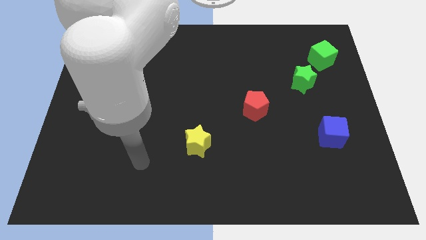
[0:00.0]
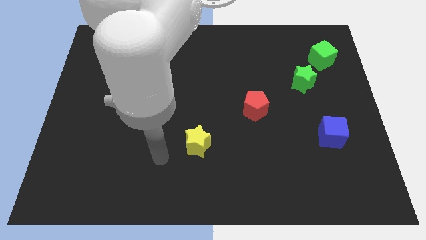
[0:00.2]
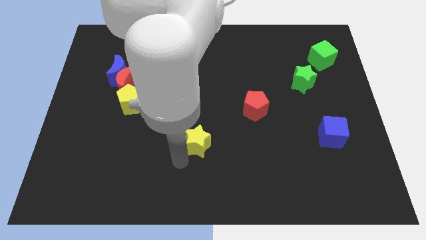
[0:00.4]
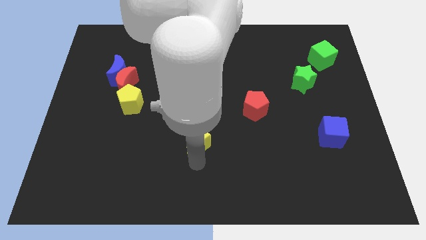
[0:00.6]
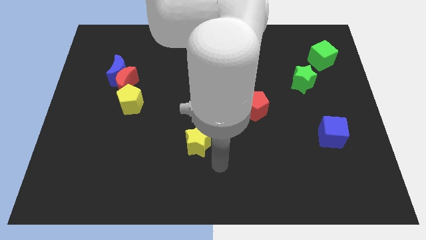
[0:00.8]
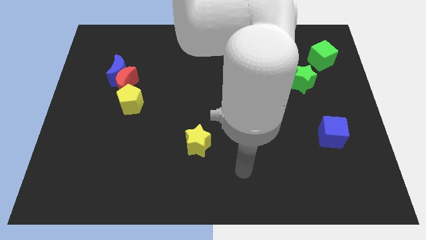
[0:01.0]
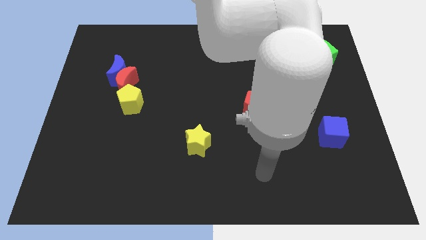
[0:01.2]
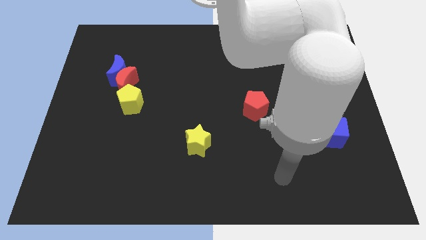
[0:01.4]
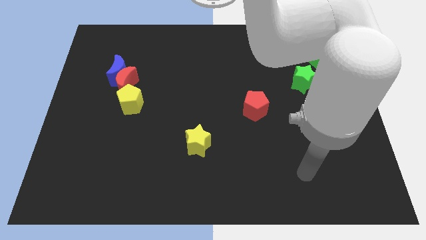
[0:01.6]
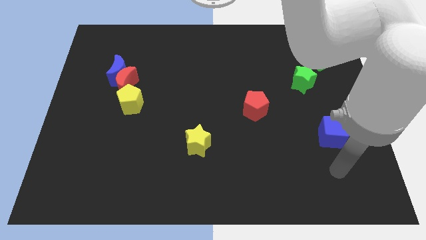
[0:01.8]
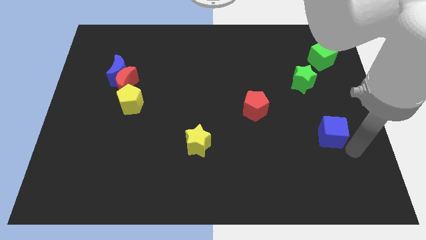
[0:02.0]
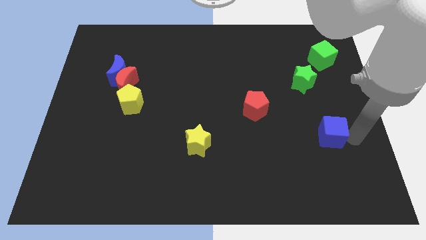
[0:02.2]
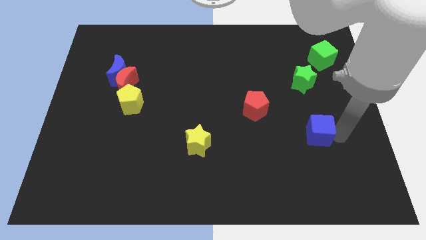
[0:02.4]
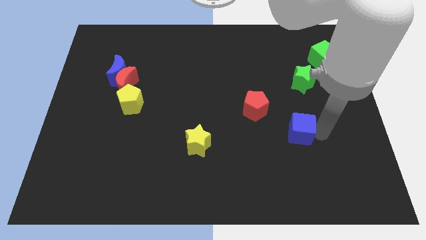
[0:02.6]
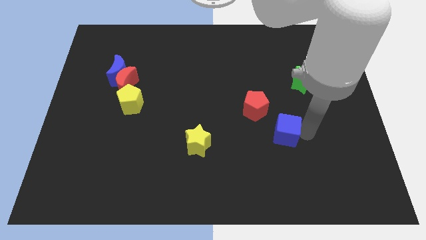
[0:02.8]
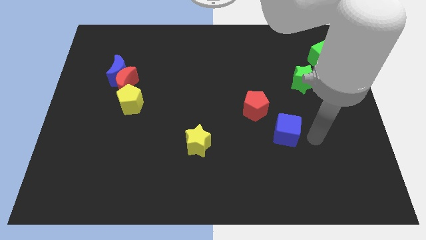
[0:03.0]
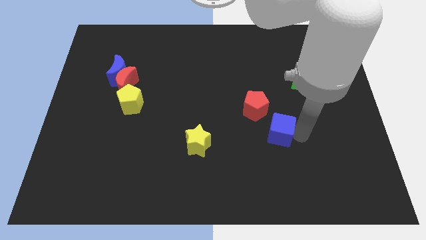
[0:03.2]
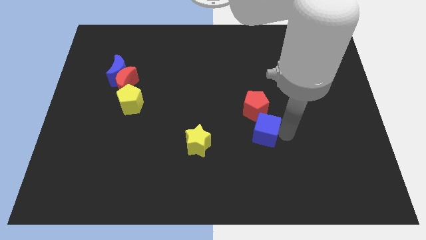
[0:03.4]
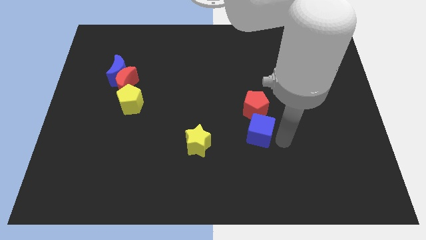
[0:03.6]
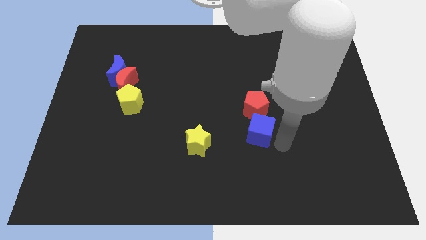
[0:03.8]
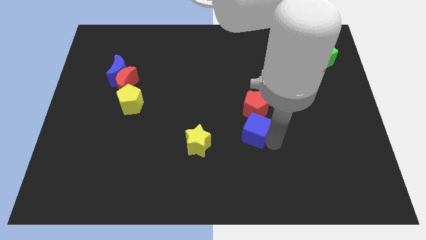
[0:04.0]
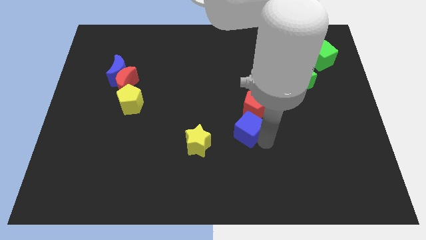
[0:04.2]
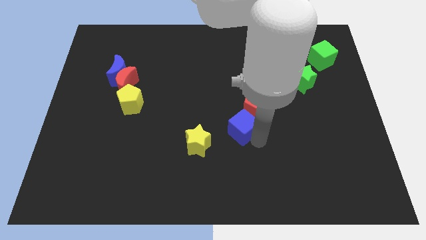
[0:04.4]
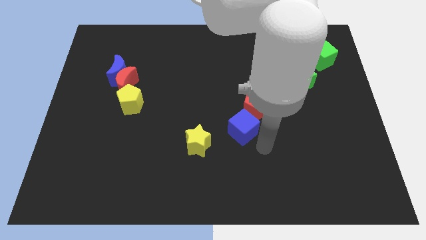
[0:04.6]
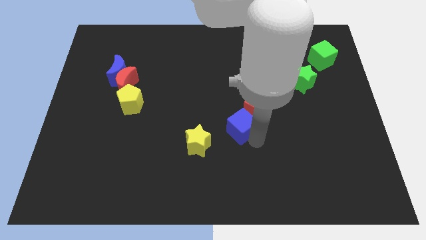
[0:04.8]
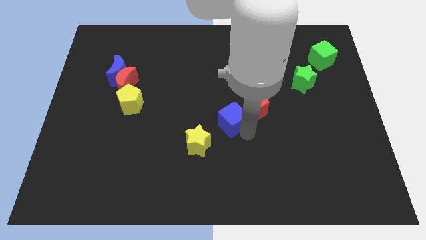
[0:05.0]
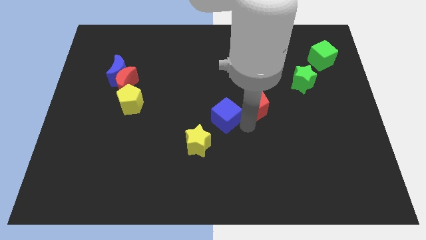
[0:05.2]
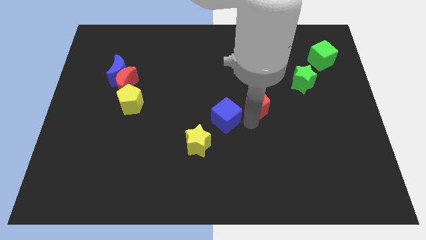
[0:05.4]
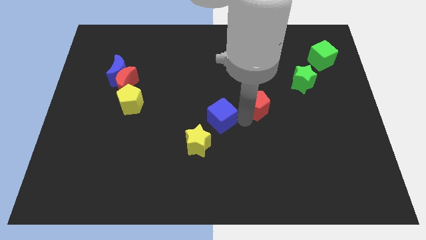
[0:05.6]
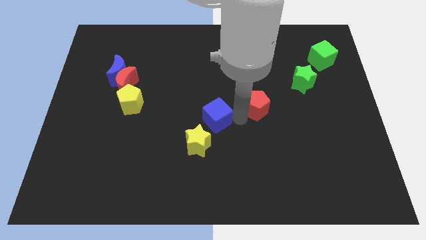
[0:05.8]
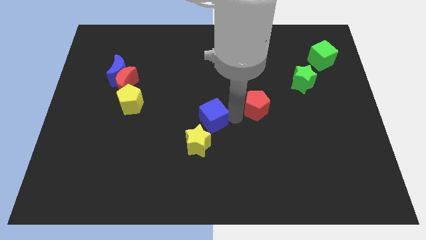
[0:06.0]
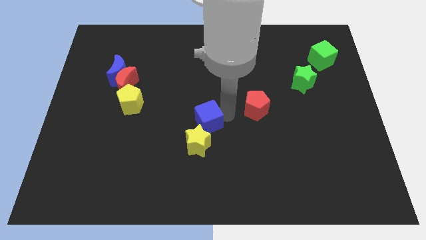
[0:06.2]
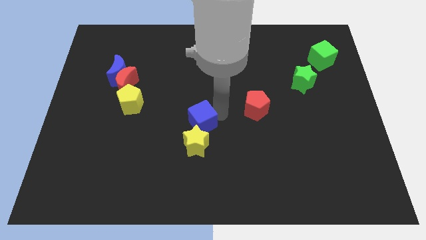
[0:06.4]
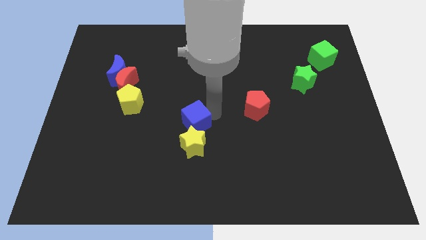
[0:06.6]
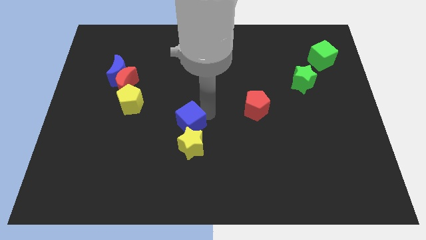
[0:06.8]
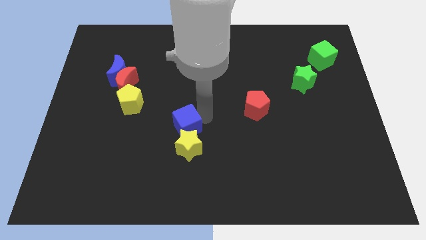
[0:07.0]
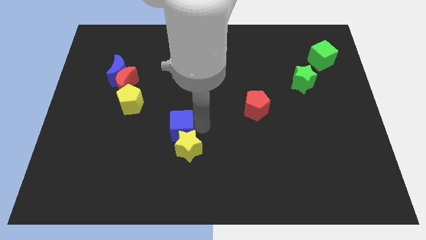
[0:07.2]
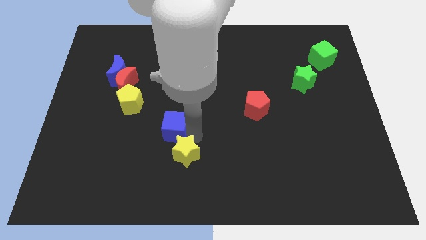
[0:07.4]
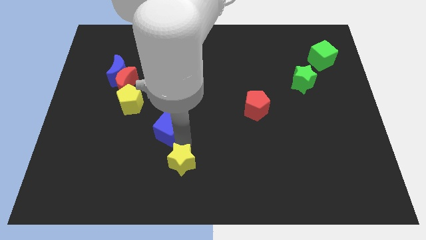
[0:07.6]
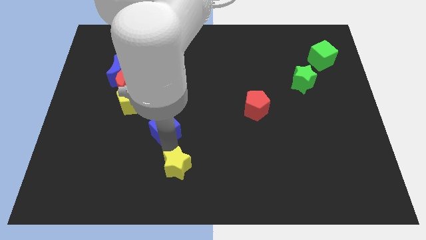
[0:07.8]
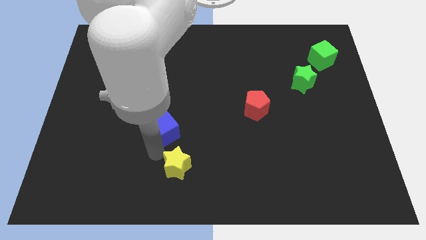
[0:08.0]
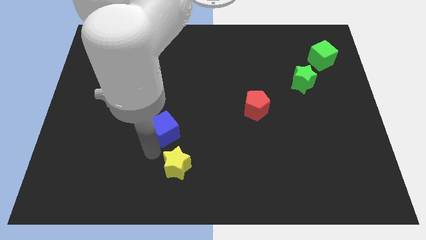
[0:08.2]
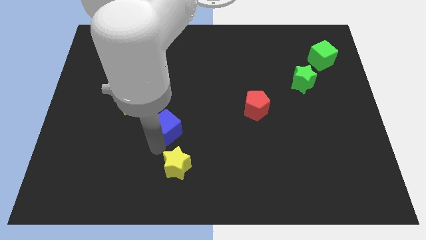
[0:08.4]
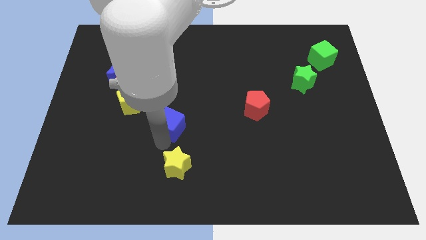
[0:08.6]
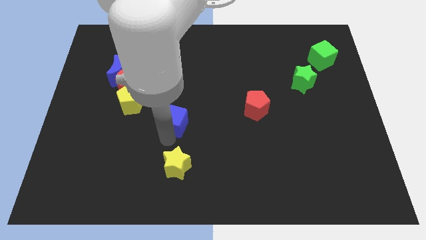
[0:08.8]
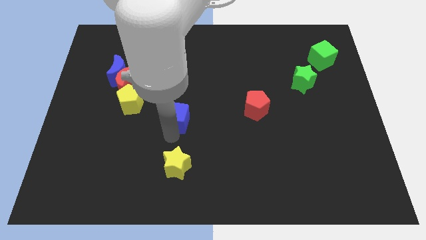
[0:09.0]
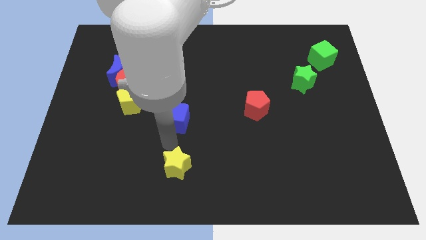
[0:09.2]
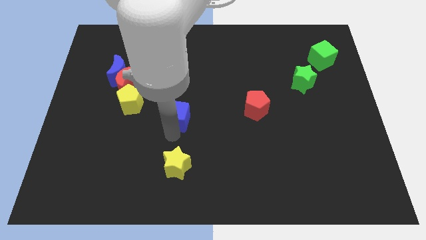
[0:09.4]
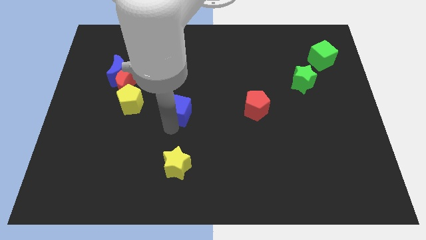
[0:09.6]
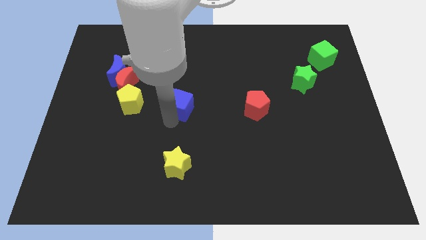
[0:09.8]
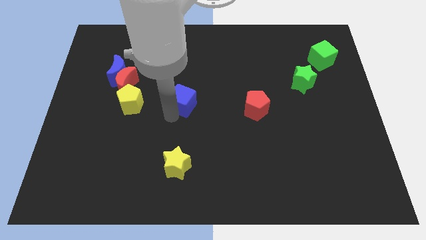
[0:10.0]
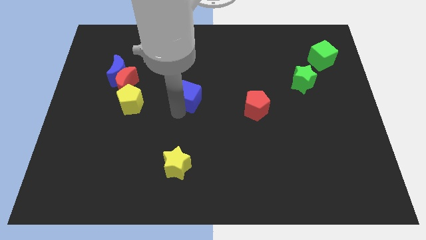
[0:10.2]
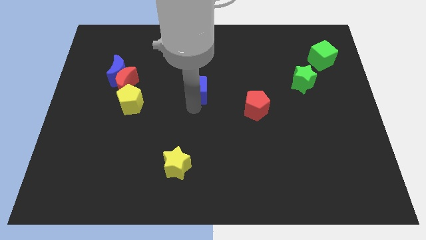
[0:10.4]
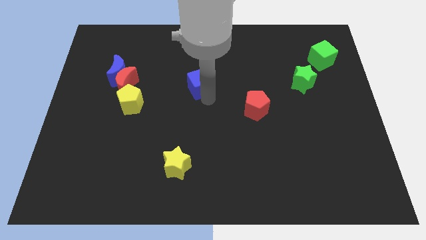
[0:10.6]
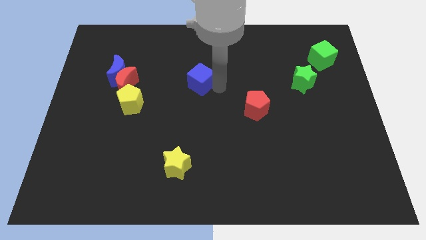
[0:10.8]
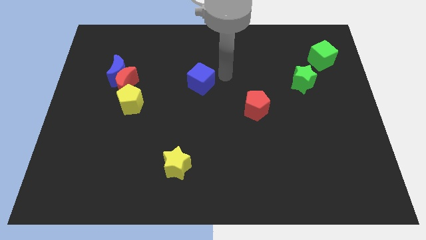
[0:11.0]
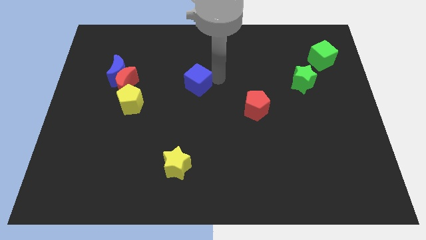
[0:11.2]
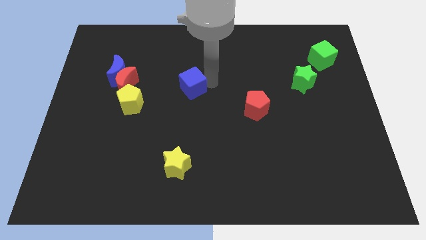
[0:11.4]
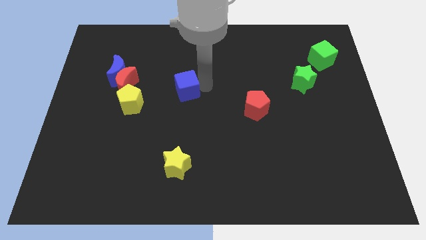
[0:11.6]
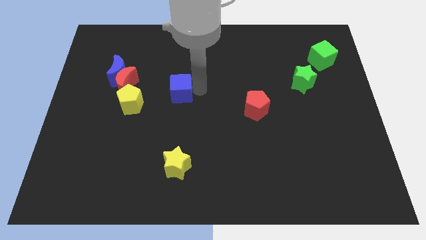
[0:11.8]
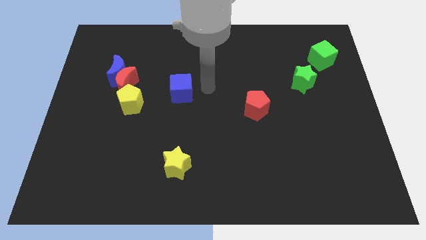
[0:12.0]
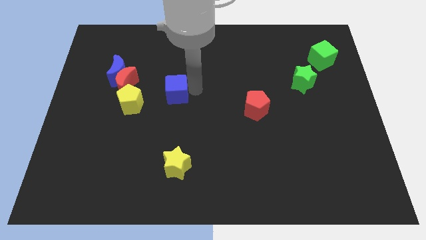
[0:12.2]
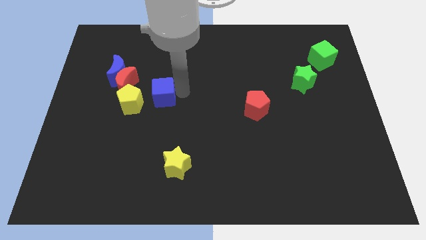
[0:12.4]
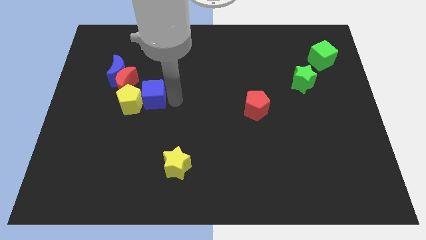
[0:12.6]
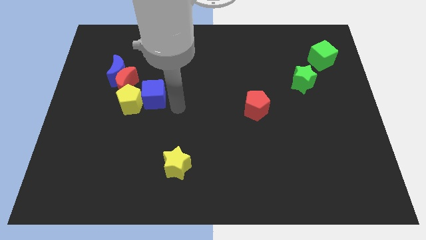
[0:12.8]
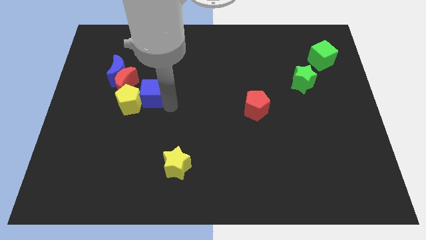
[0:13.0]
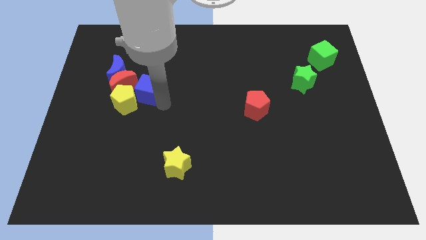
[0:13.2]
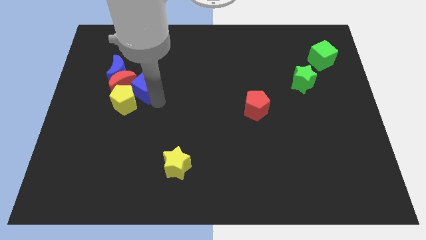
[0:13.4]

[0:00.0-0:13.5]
push the blue cube to the red moon
